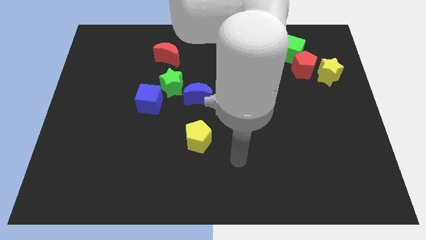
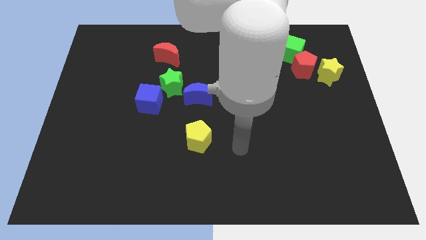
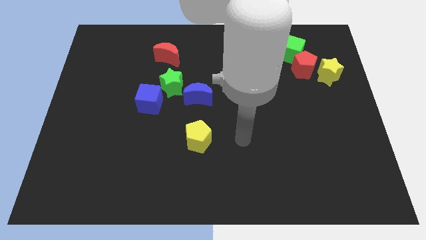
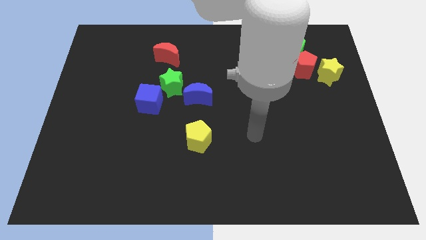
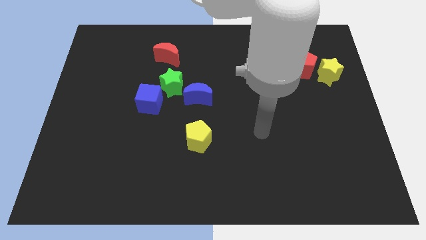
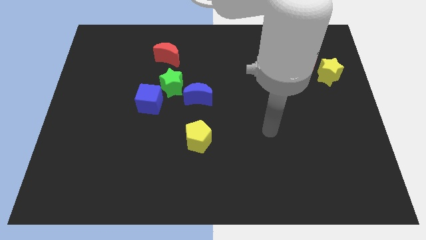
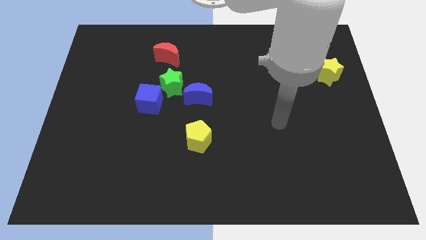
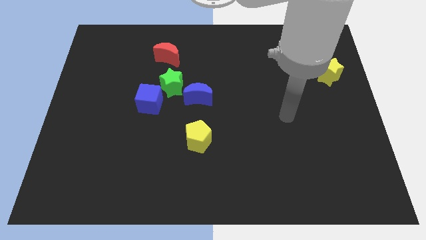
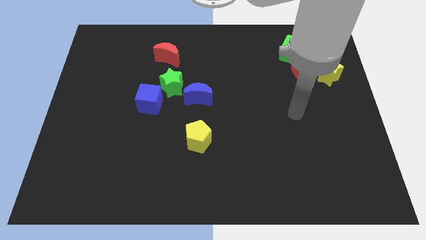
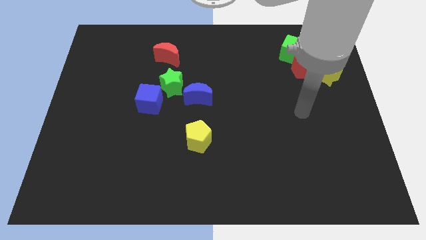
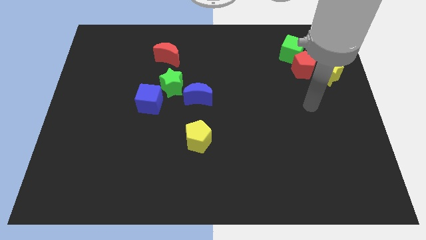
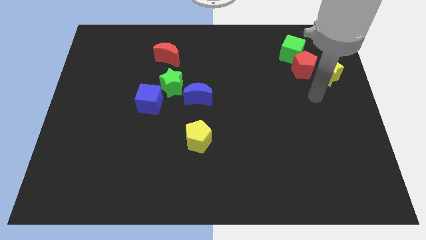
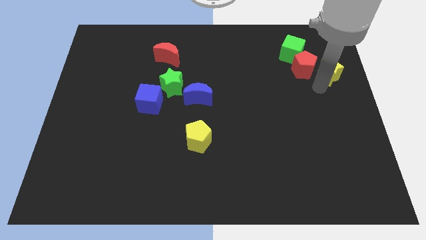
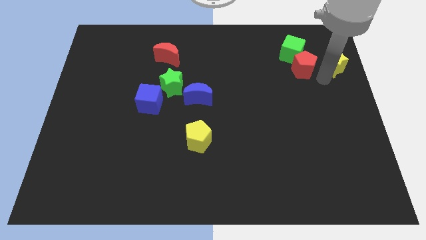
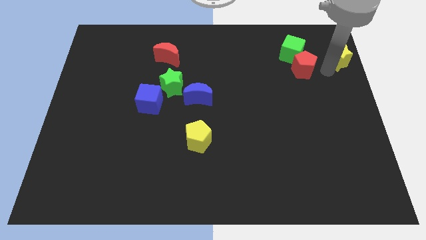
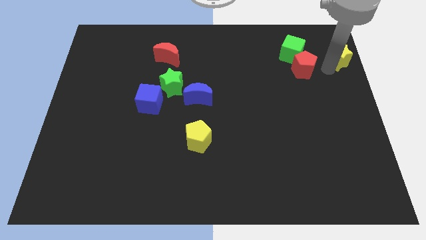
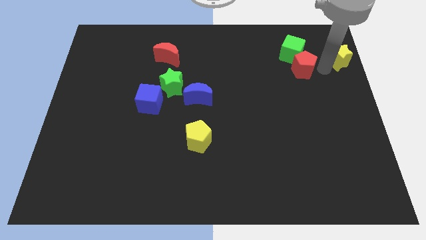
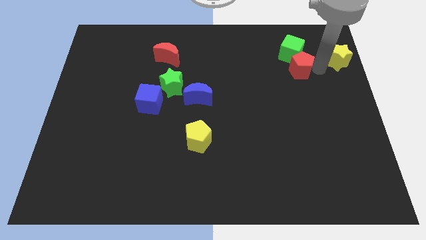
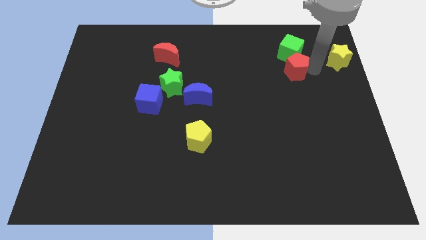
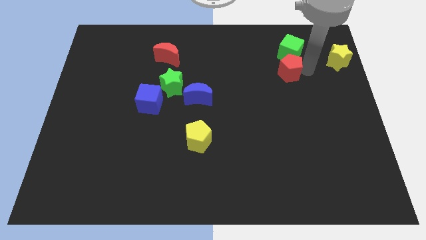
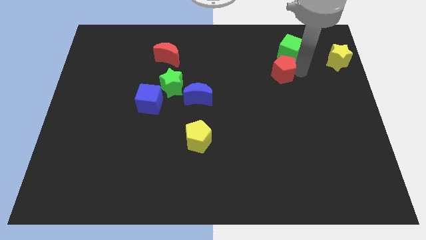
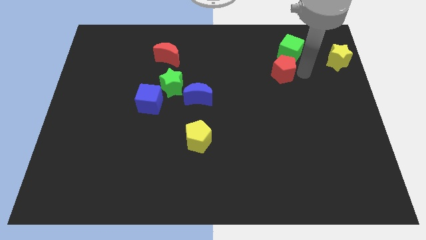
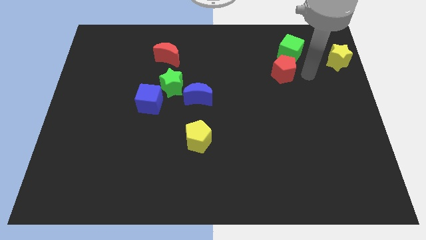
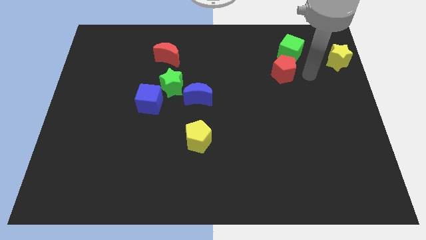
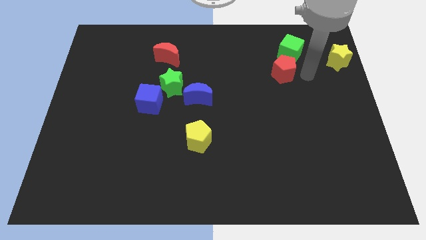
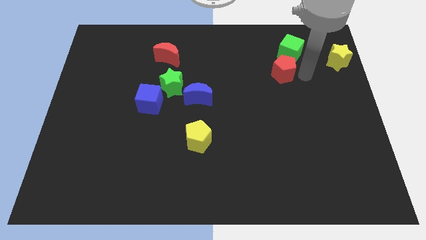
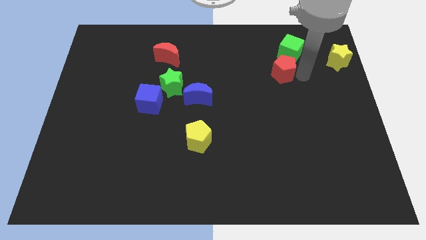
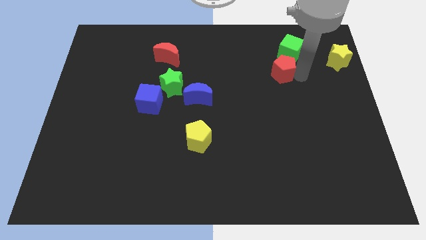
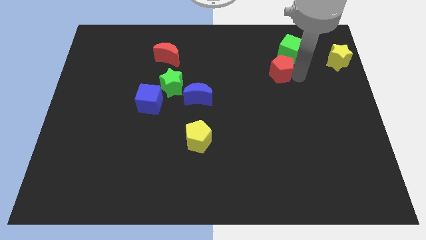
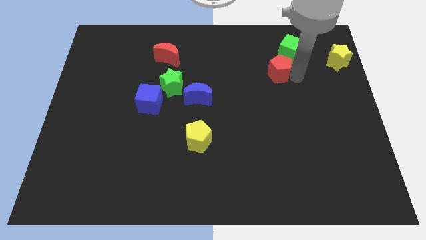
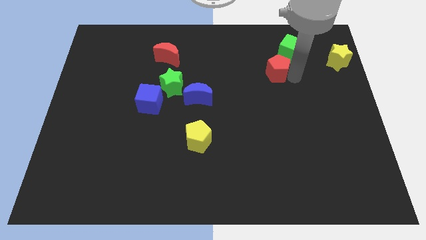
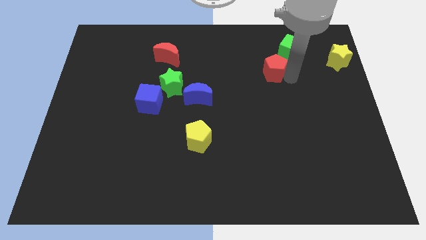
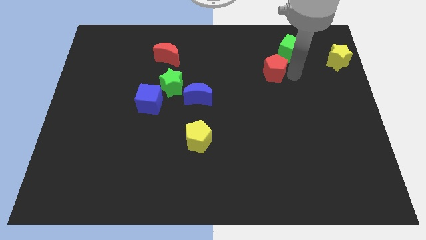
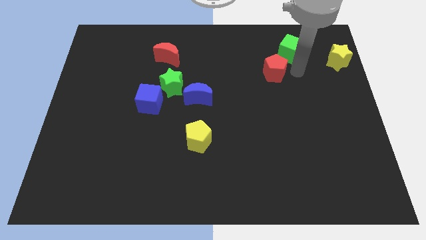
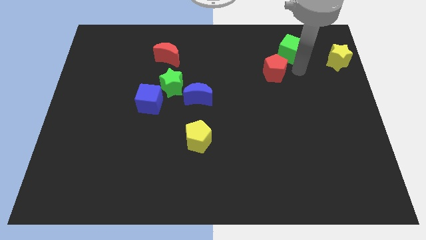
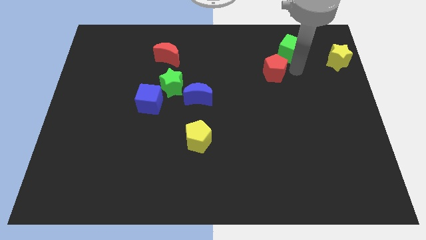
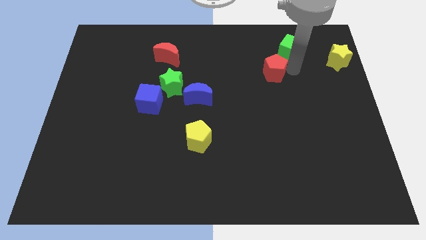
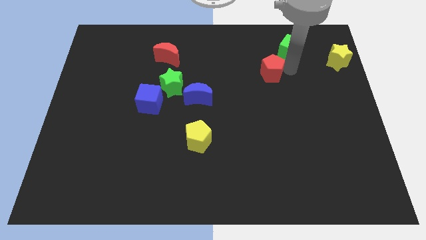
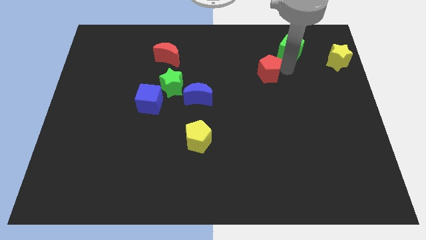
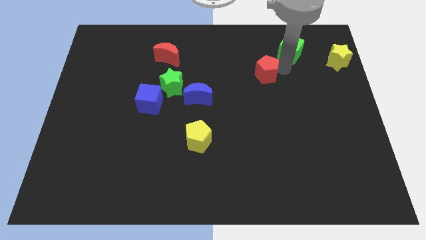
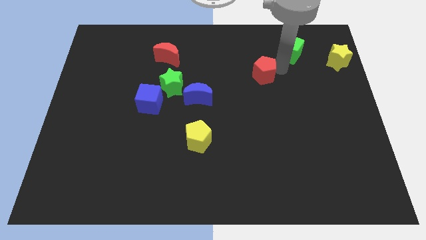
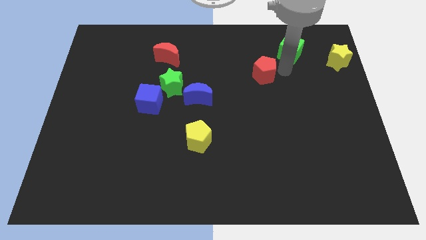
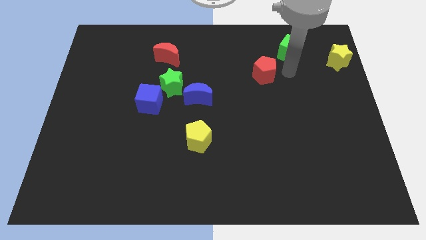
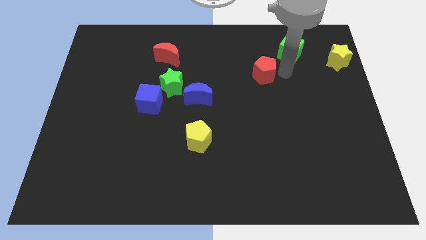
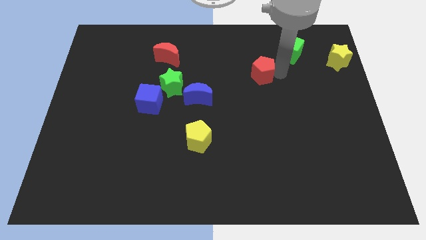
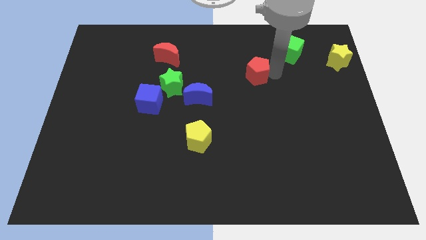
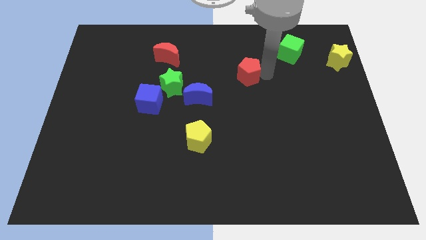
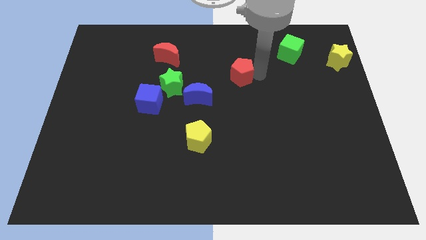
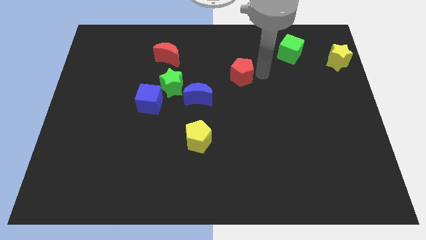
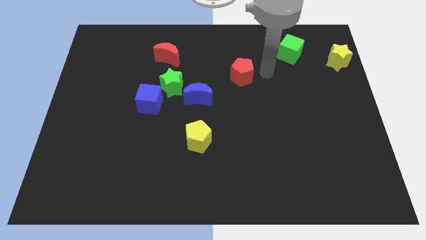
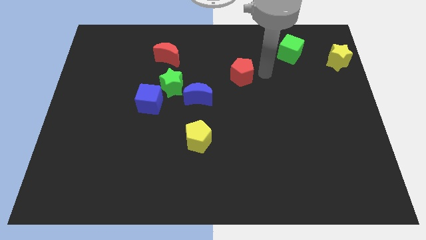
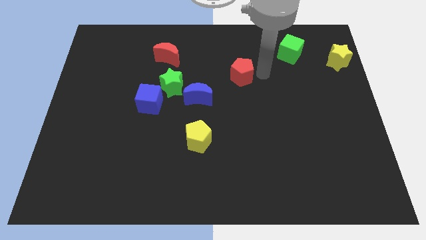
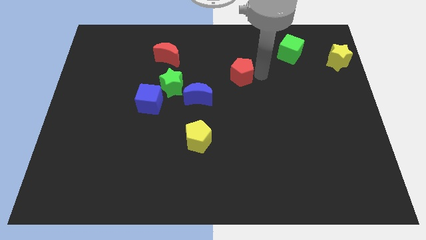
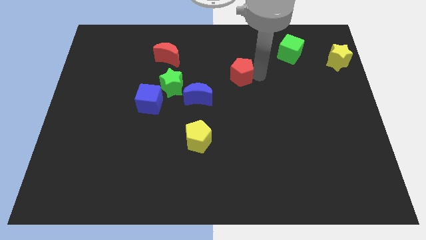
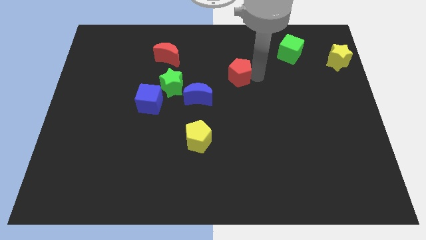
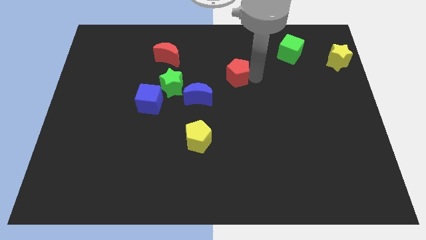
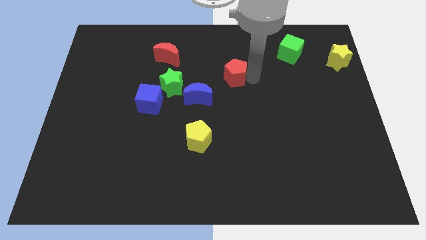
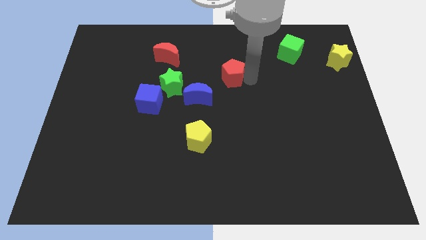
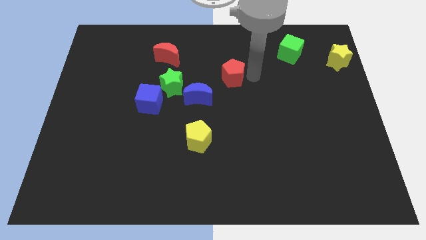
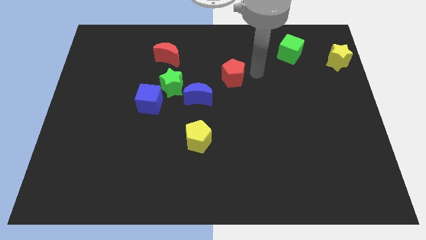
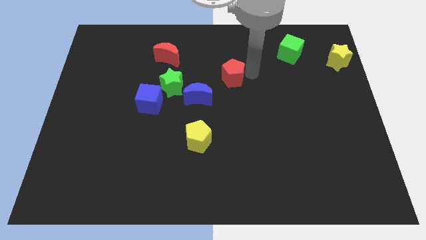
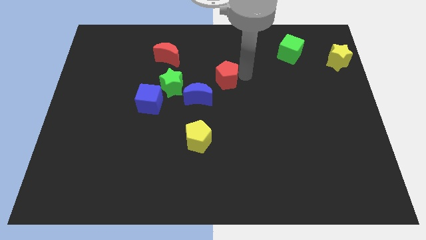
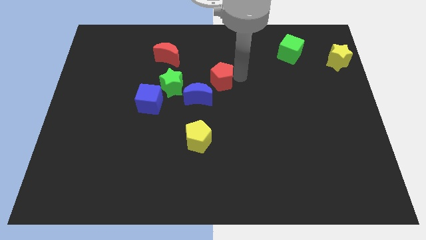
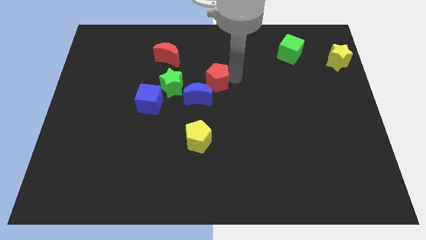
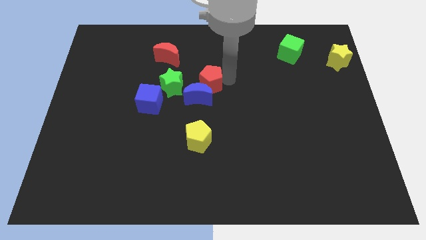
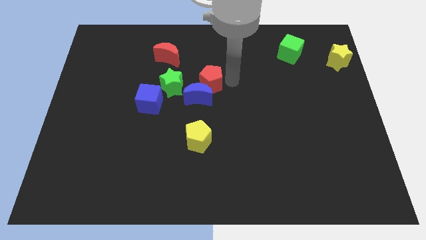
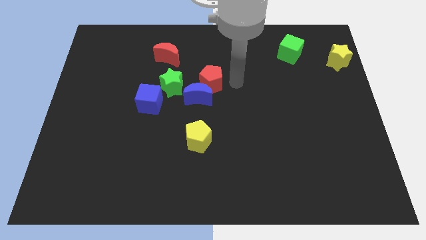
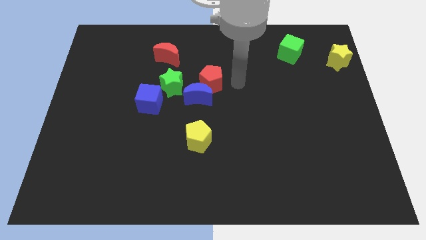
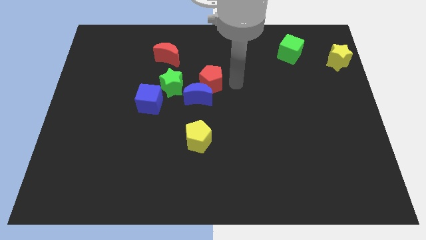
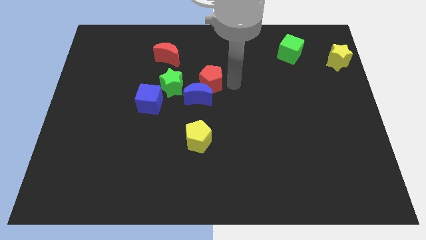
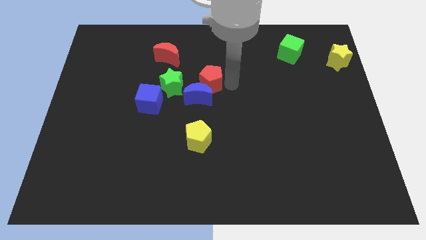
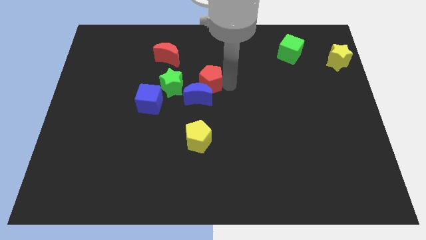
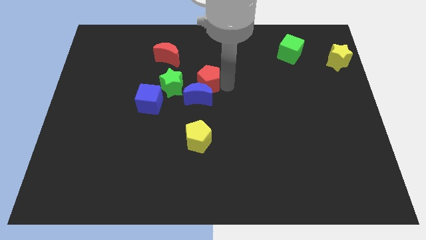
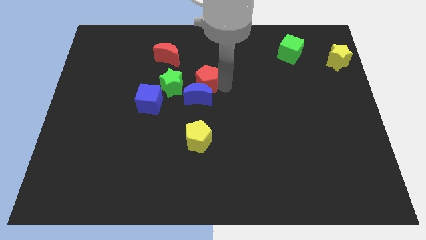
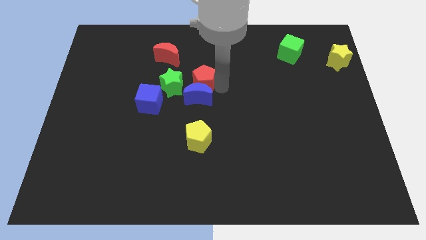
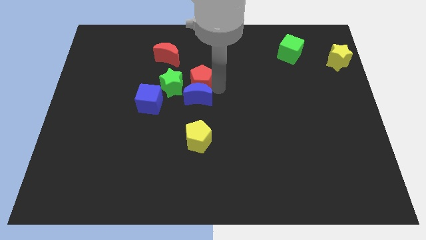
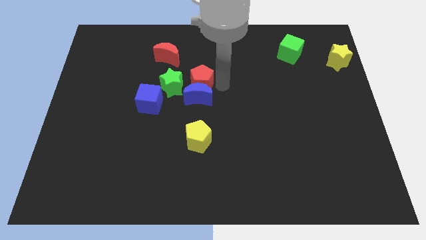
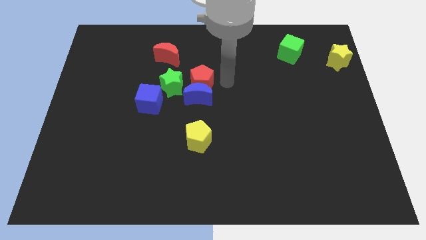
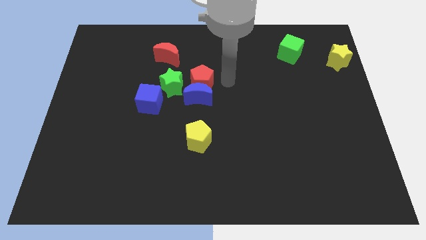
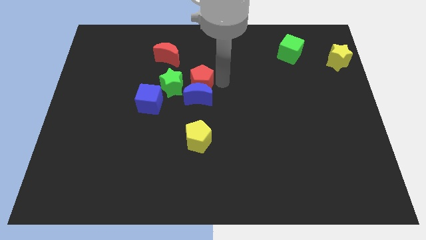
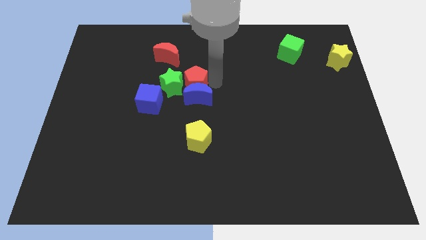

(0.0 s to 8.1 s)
push the red pentagon to the green star
